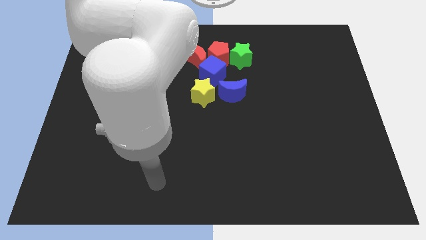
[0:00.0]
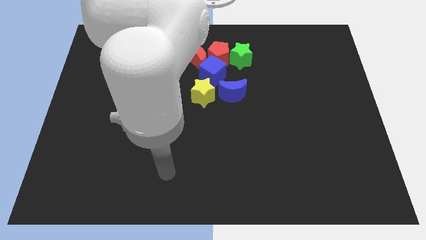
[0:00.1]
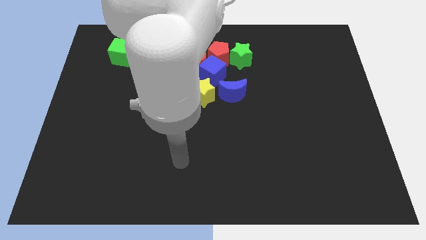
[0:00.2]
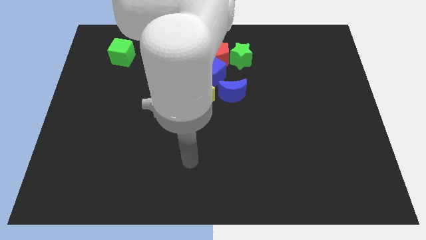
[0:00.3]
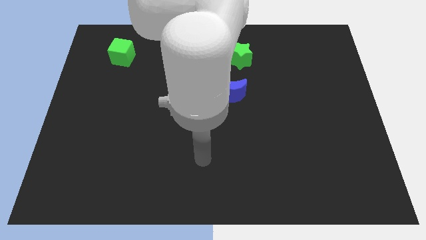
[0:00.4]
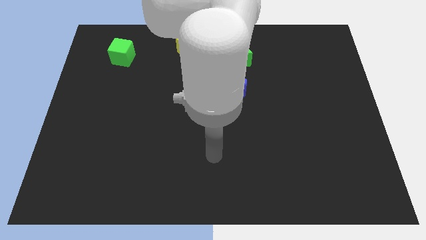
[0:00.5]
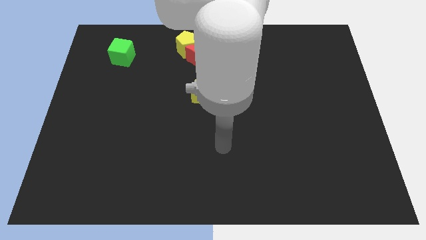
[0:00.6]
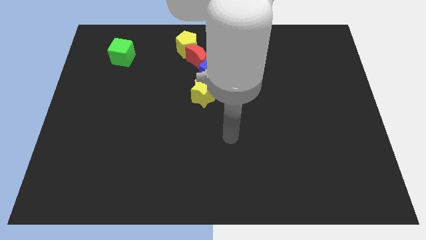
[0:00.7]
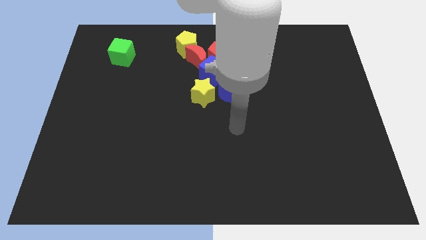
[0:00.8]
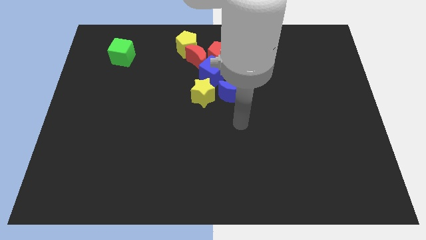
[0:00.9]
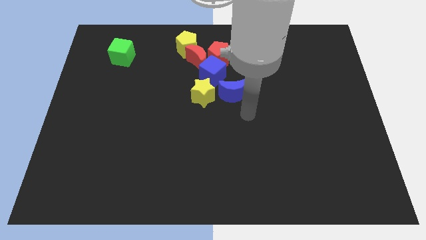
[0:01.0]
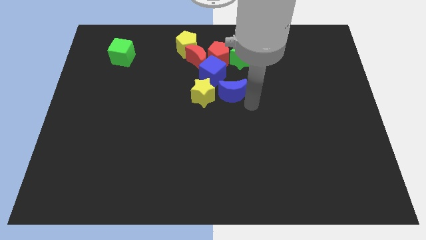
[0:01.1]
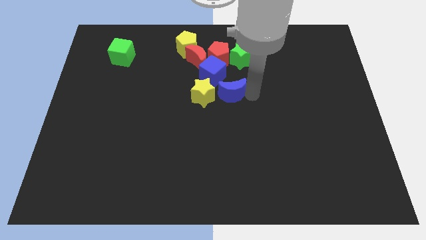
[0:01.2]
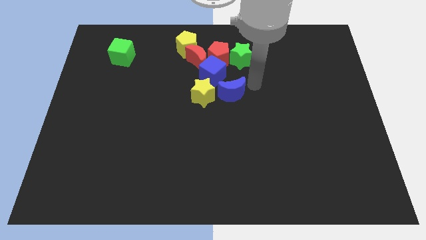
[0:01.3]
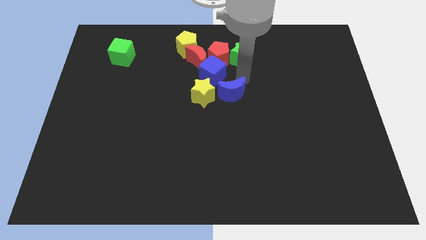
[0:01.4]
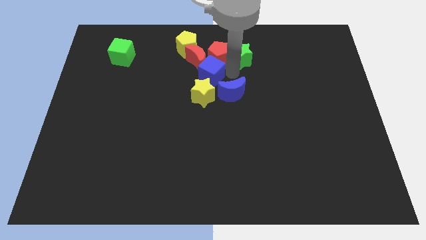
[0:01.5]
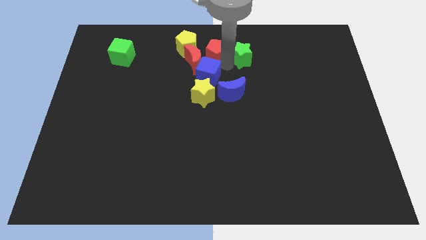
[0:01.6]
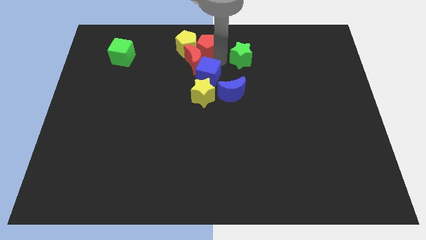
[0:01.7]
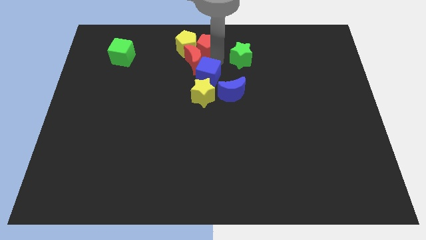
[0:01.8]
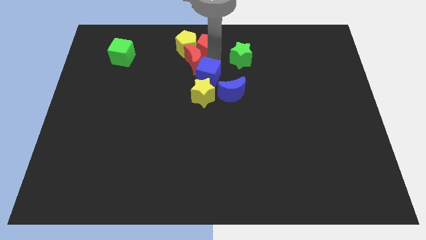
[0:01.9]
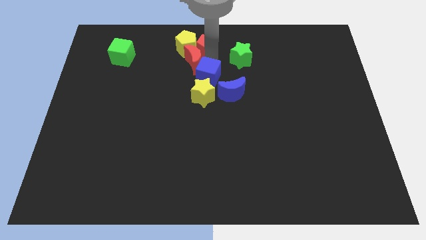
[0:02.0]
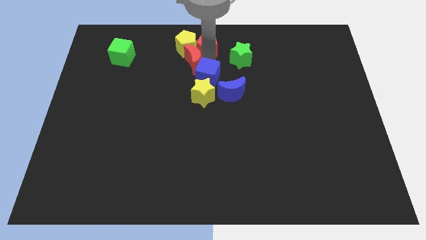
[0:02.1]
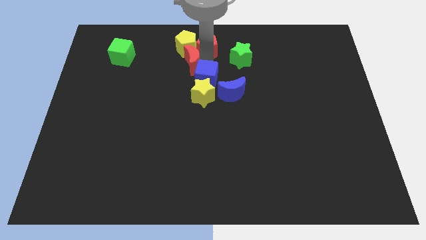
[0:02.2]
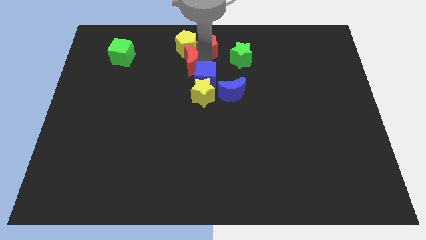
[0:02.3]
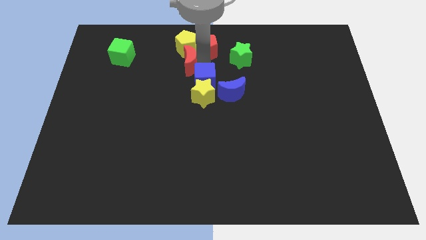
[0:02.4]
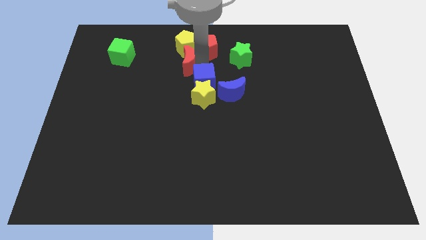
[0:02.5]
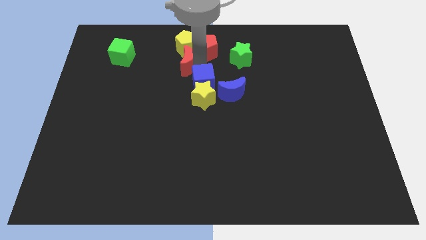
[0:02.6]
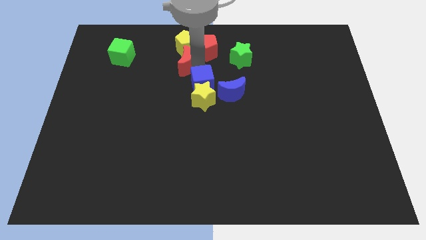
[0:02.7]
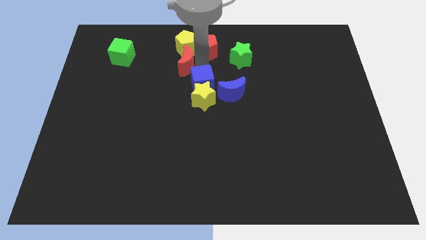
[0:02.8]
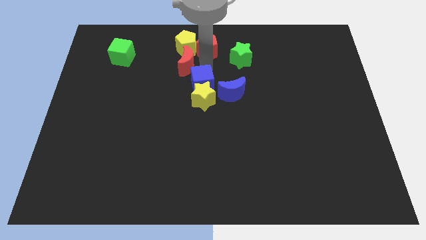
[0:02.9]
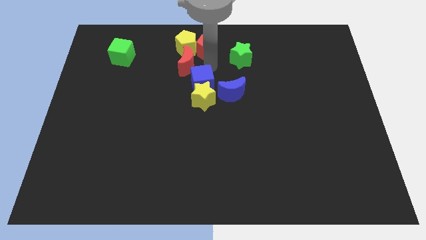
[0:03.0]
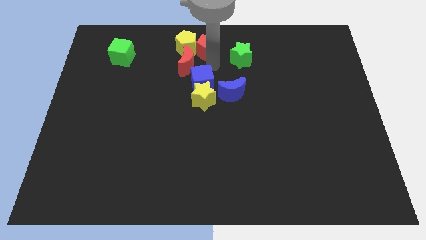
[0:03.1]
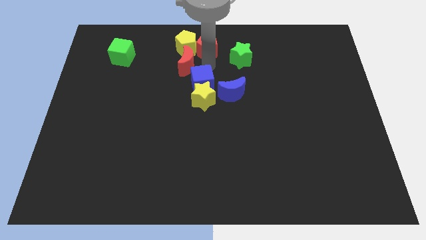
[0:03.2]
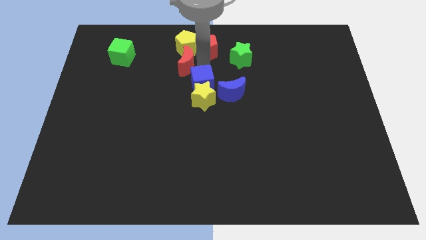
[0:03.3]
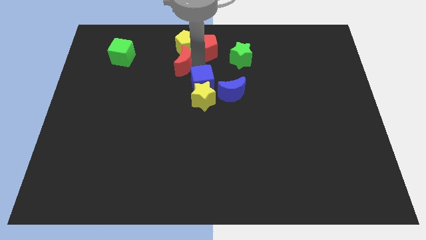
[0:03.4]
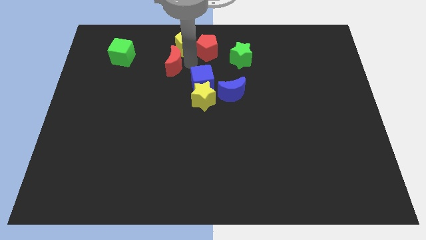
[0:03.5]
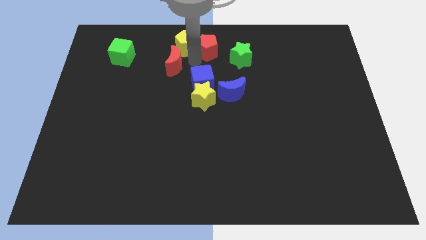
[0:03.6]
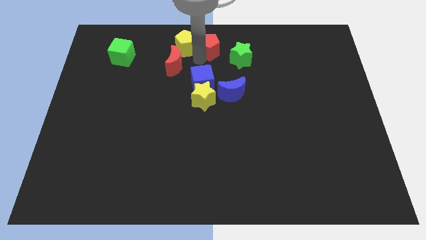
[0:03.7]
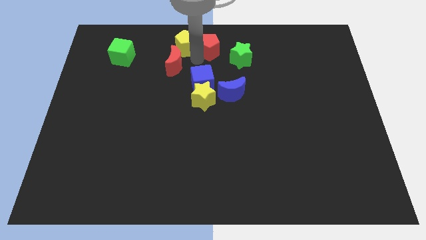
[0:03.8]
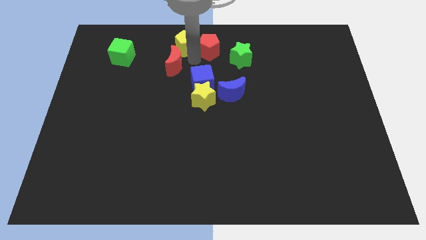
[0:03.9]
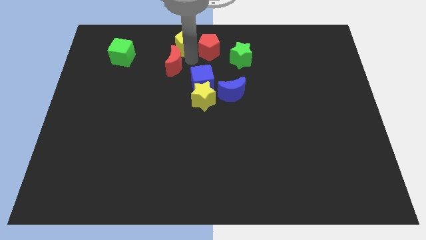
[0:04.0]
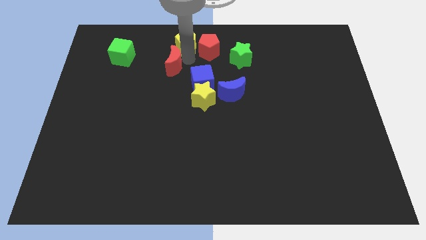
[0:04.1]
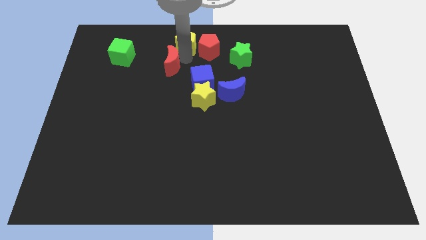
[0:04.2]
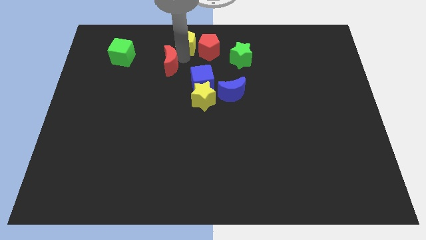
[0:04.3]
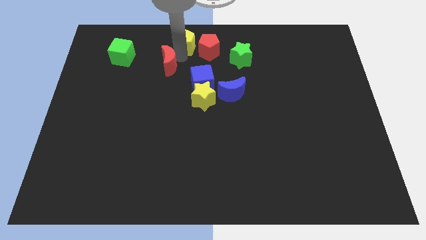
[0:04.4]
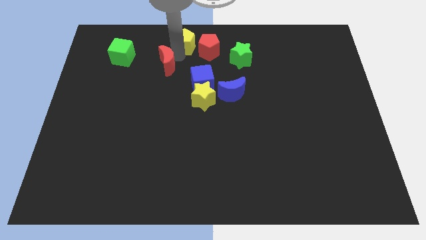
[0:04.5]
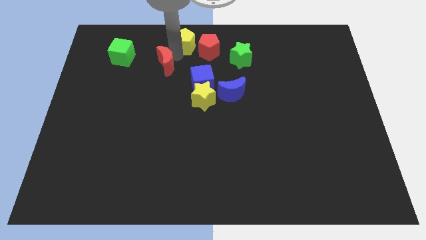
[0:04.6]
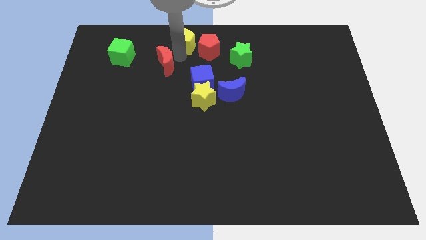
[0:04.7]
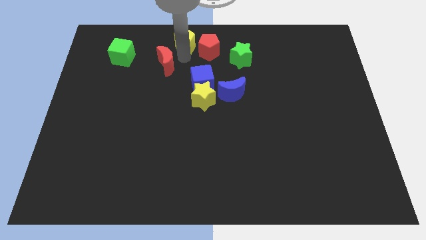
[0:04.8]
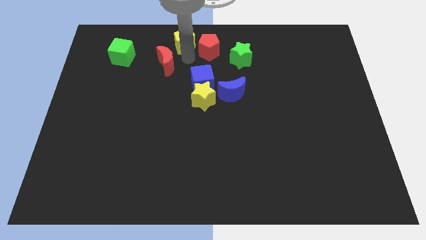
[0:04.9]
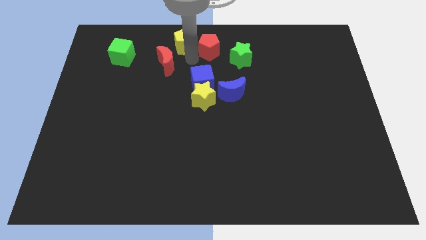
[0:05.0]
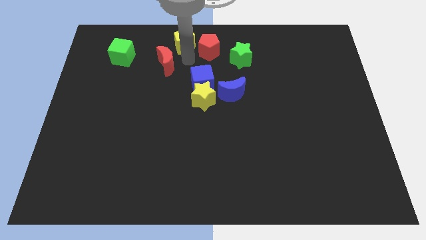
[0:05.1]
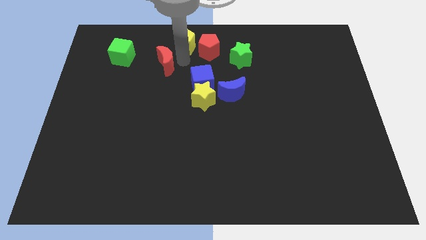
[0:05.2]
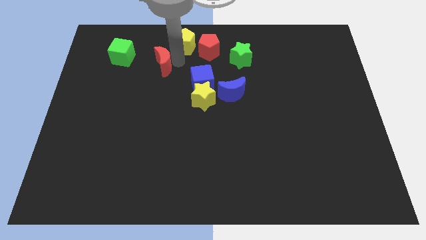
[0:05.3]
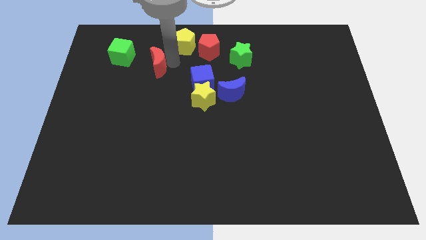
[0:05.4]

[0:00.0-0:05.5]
separate the red moon from the group

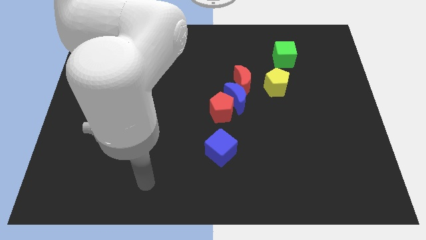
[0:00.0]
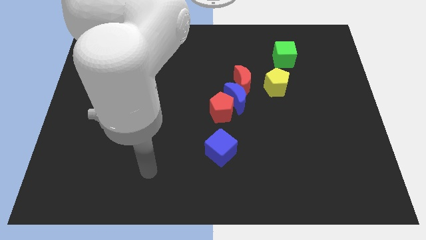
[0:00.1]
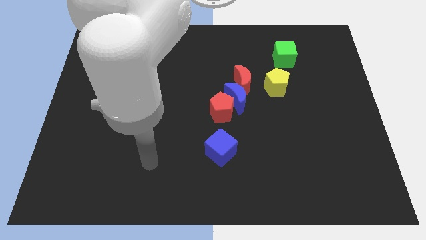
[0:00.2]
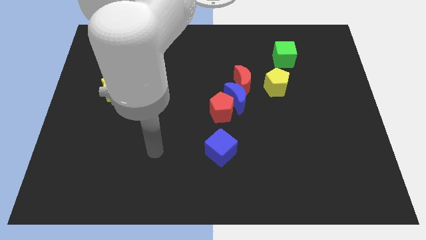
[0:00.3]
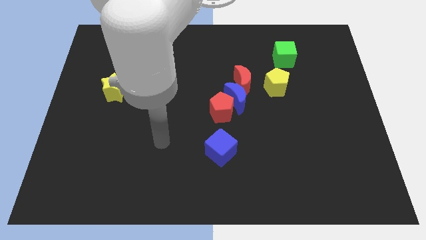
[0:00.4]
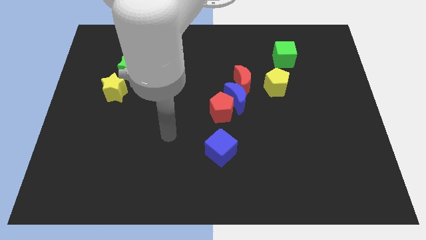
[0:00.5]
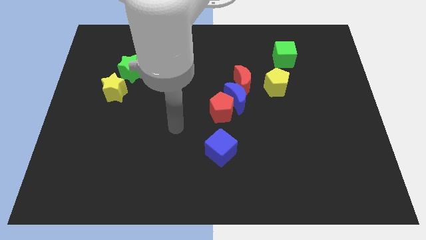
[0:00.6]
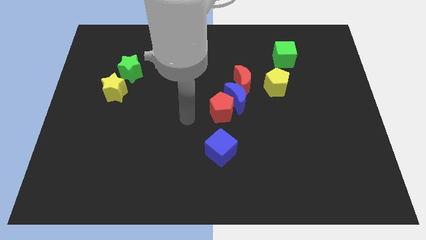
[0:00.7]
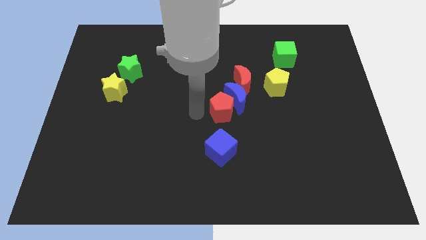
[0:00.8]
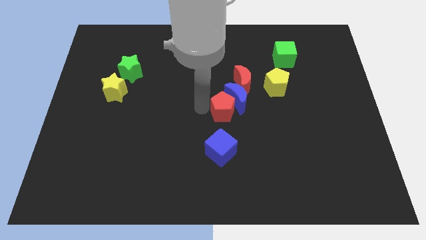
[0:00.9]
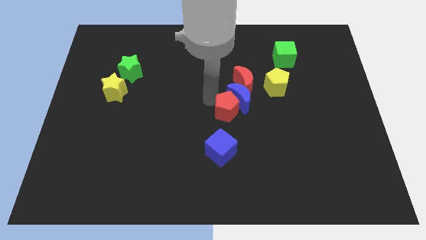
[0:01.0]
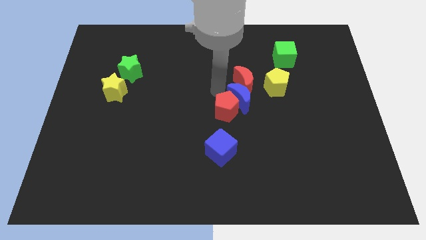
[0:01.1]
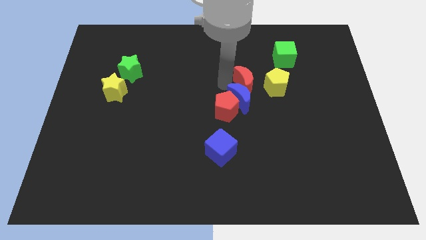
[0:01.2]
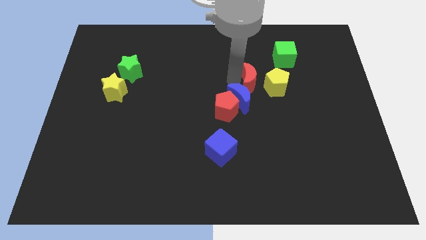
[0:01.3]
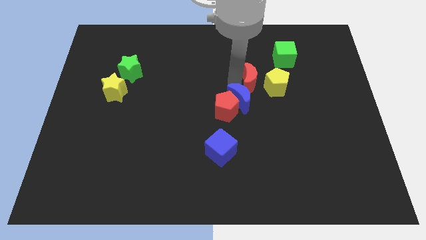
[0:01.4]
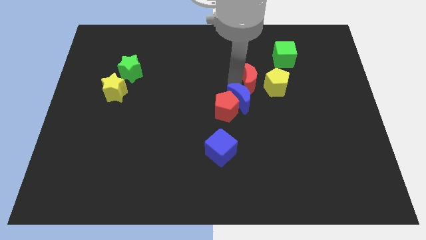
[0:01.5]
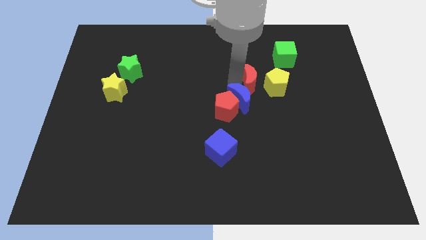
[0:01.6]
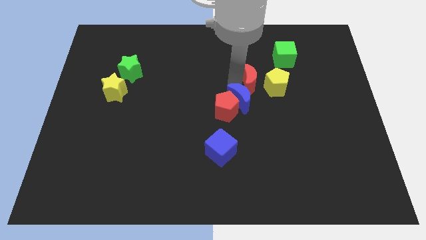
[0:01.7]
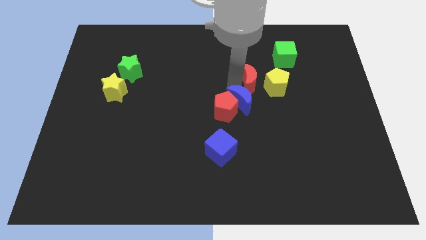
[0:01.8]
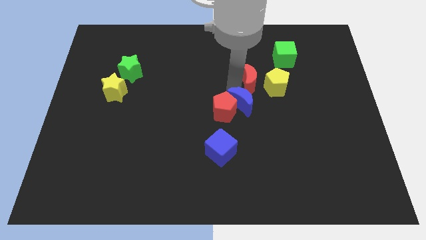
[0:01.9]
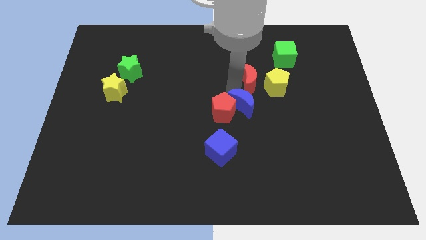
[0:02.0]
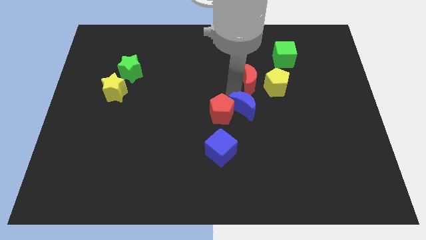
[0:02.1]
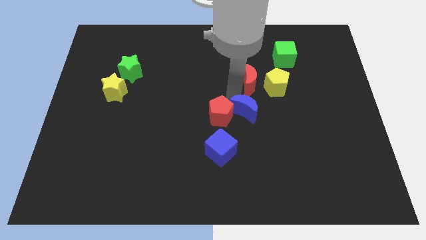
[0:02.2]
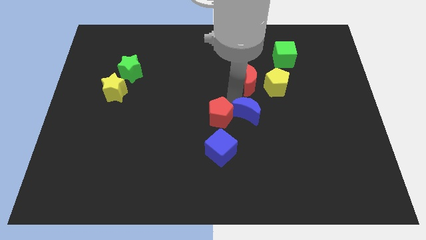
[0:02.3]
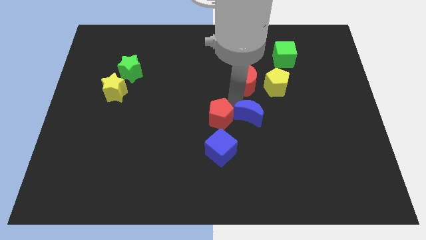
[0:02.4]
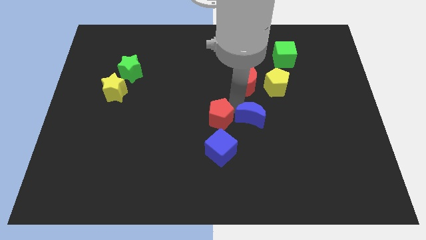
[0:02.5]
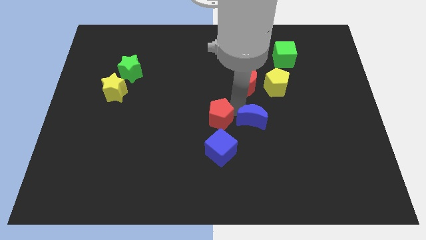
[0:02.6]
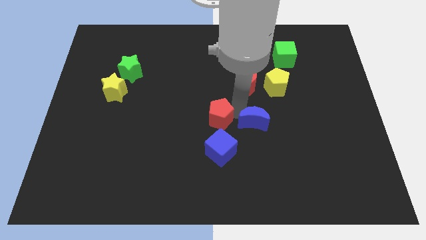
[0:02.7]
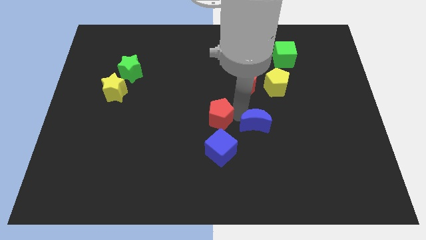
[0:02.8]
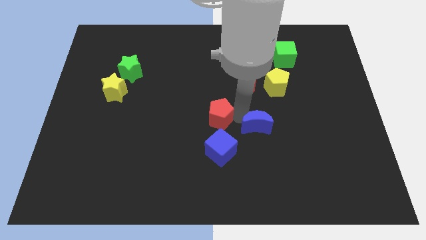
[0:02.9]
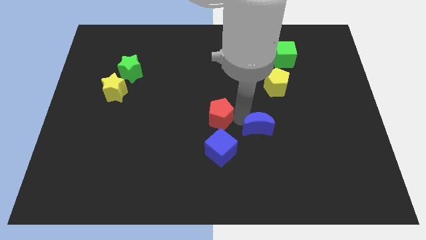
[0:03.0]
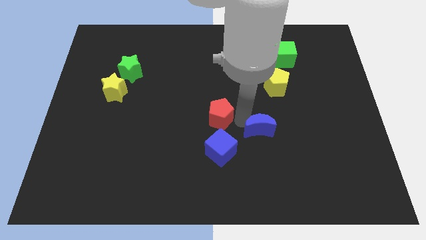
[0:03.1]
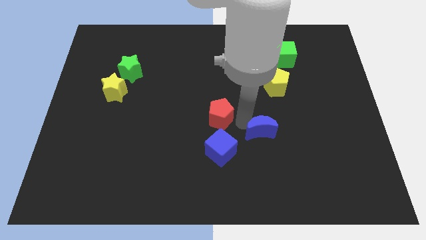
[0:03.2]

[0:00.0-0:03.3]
separate the blue moon from the red pentagon and red moon

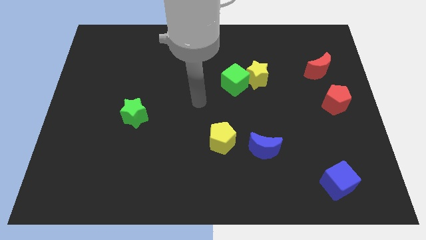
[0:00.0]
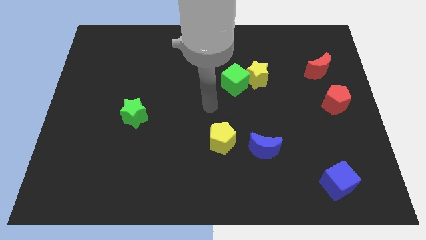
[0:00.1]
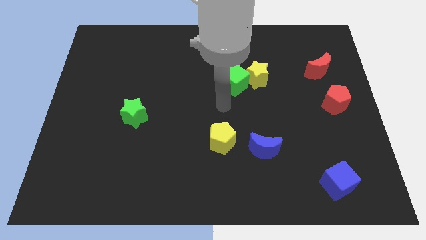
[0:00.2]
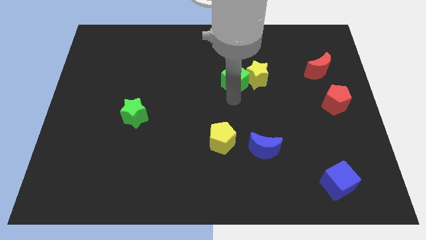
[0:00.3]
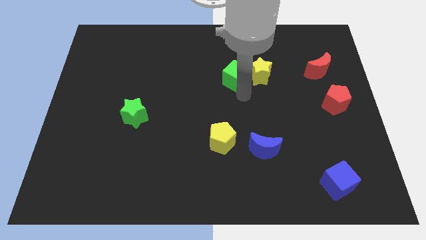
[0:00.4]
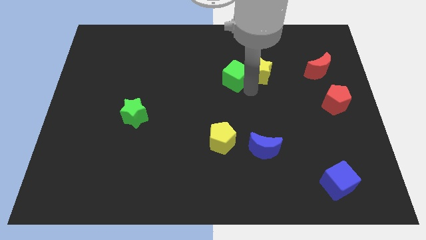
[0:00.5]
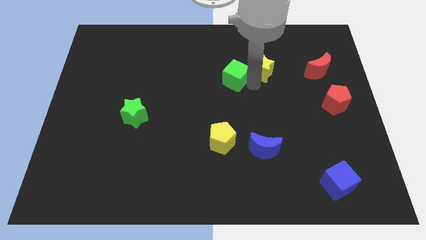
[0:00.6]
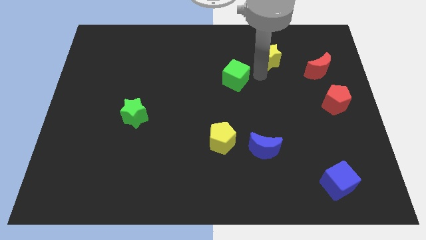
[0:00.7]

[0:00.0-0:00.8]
move the green cube away from the yellow star
